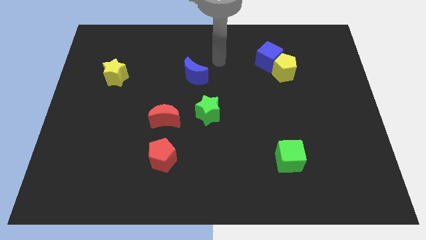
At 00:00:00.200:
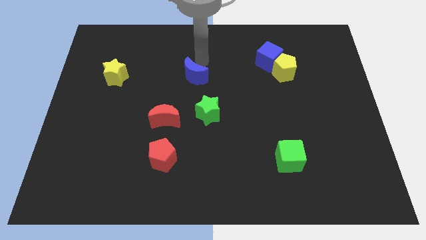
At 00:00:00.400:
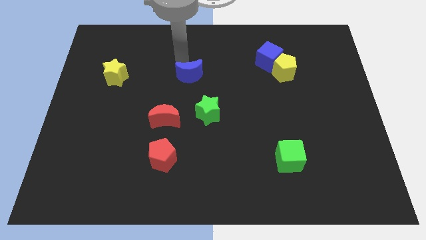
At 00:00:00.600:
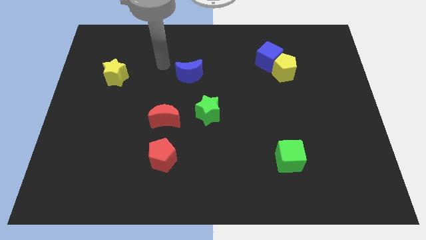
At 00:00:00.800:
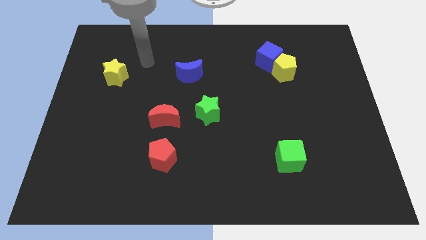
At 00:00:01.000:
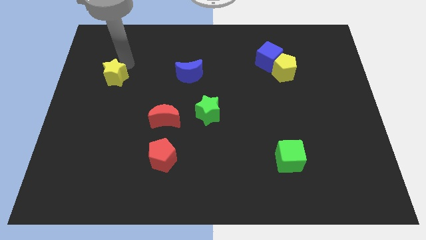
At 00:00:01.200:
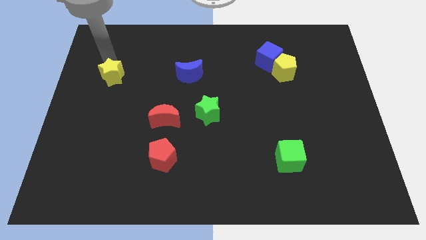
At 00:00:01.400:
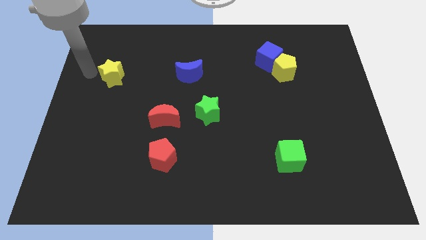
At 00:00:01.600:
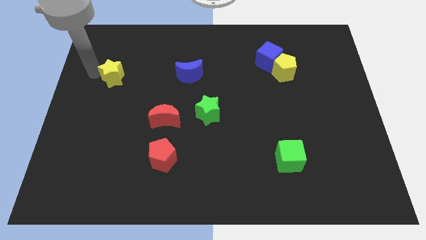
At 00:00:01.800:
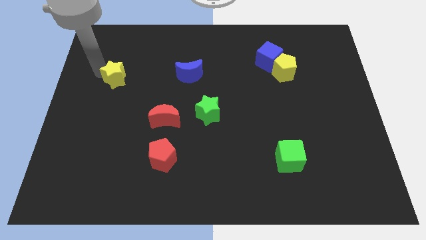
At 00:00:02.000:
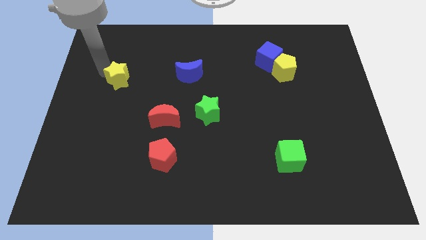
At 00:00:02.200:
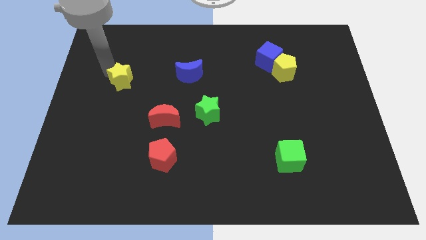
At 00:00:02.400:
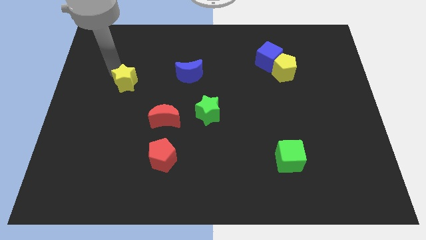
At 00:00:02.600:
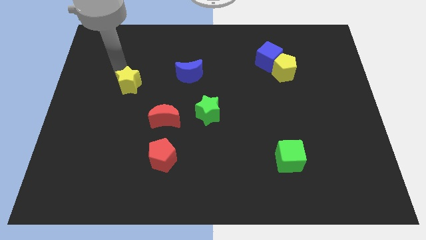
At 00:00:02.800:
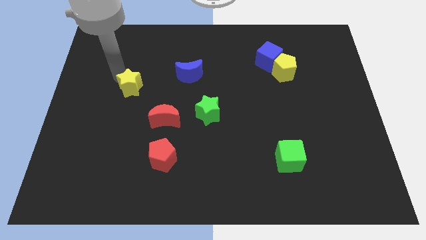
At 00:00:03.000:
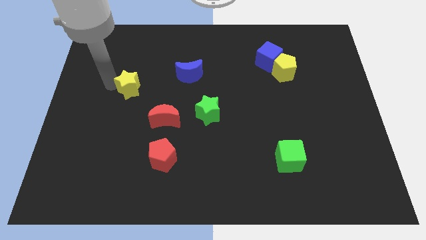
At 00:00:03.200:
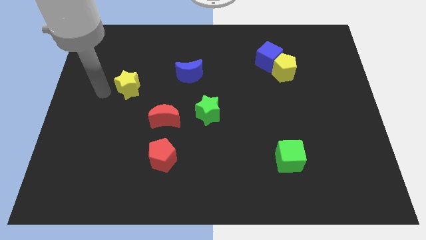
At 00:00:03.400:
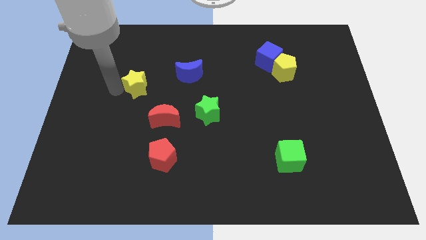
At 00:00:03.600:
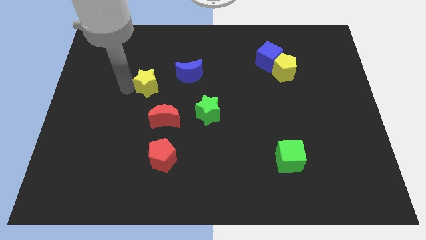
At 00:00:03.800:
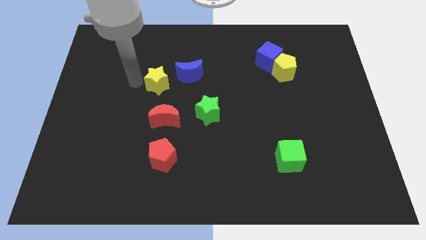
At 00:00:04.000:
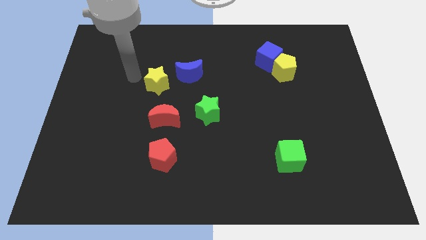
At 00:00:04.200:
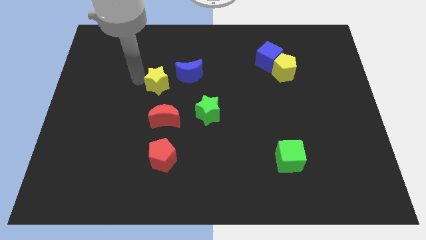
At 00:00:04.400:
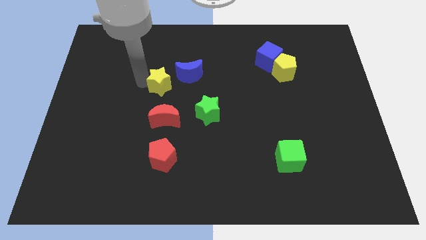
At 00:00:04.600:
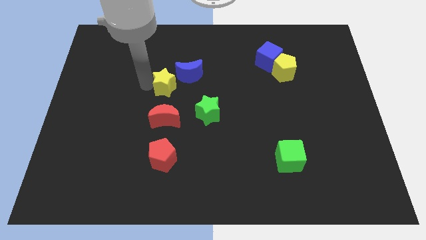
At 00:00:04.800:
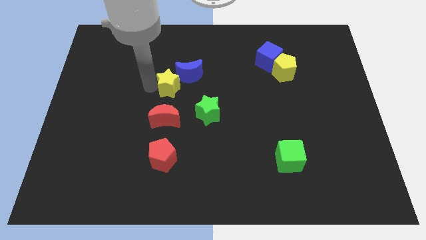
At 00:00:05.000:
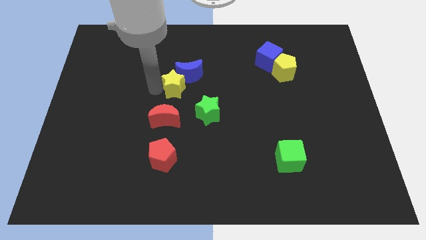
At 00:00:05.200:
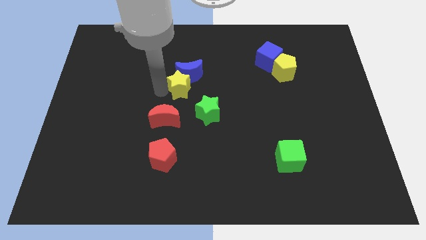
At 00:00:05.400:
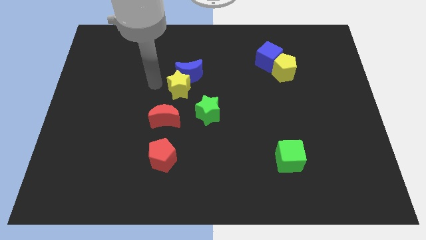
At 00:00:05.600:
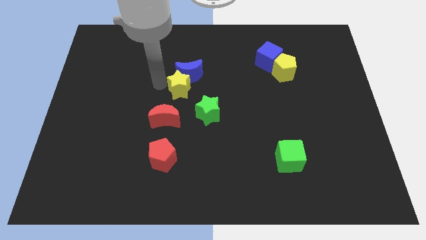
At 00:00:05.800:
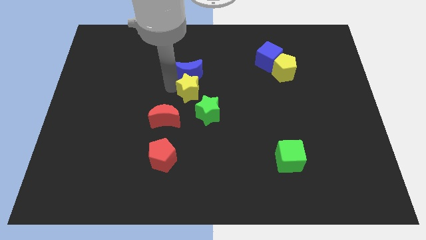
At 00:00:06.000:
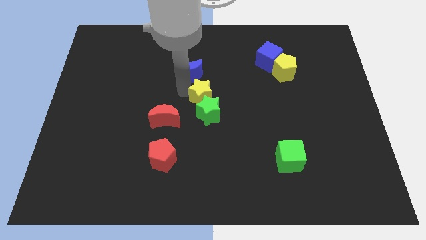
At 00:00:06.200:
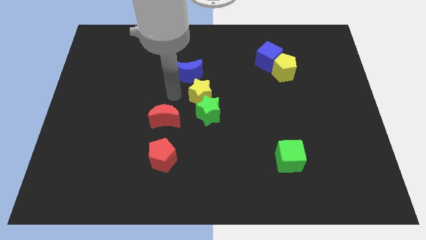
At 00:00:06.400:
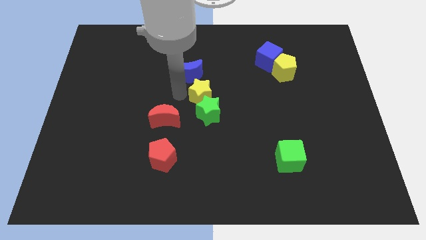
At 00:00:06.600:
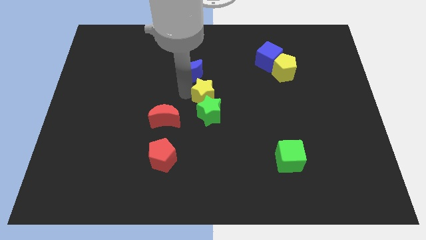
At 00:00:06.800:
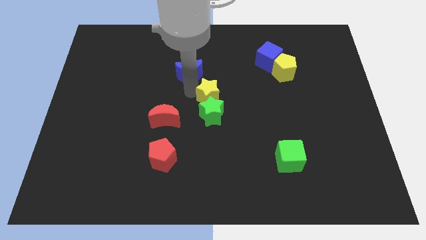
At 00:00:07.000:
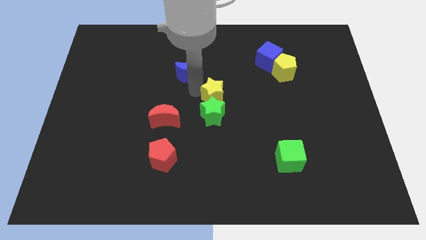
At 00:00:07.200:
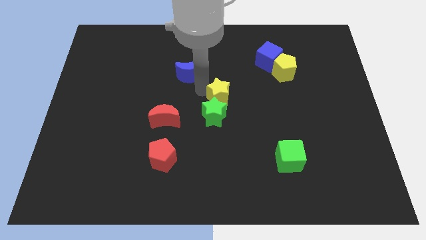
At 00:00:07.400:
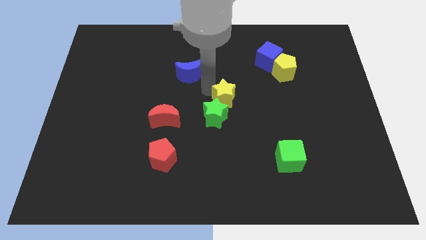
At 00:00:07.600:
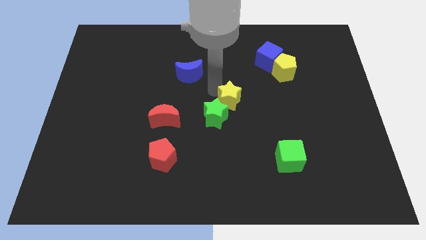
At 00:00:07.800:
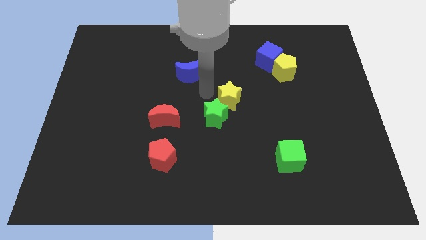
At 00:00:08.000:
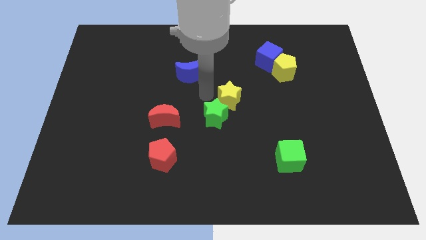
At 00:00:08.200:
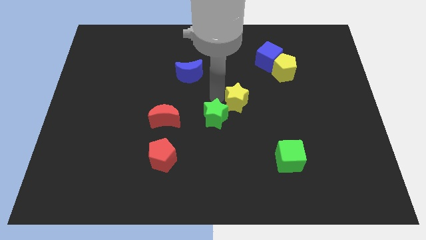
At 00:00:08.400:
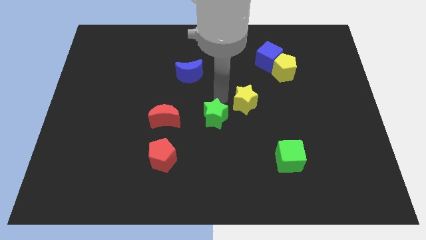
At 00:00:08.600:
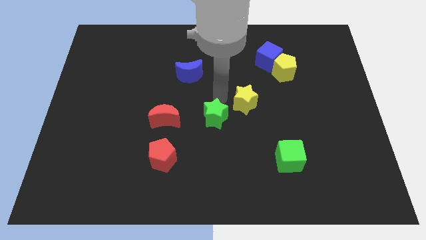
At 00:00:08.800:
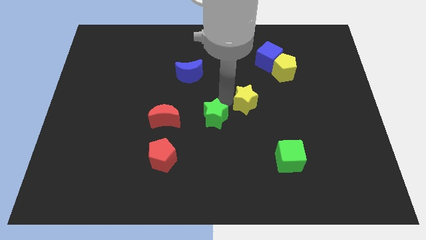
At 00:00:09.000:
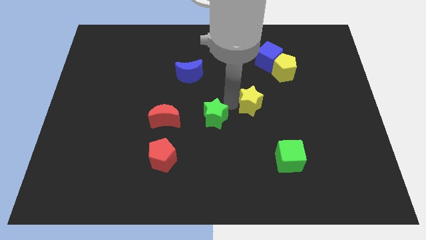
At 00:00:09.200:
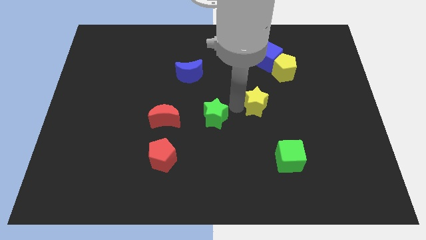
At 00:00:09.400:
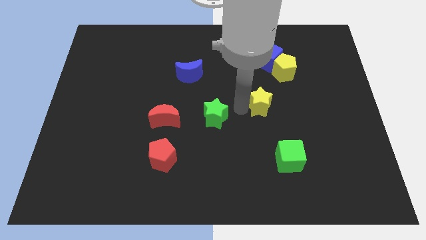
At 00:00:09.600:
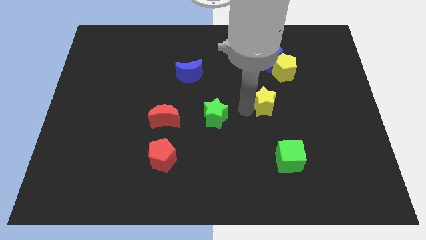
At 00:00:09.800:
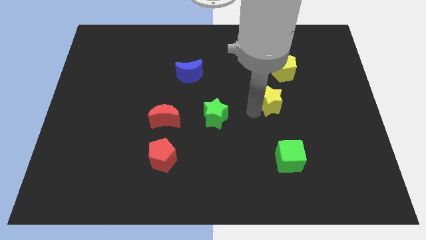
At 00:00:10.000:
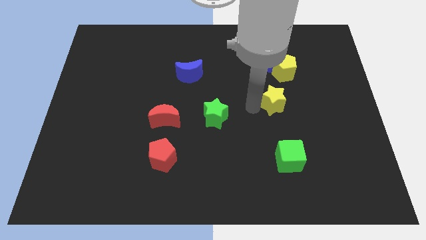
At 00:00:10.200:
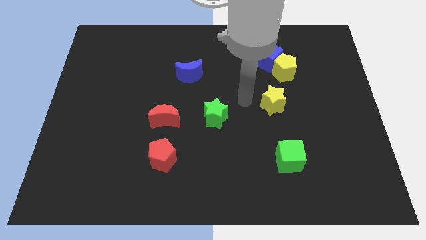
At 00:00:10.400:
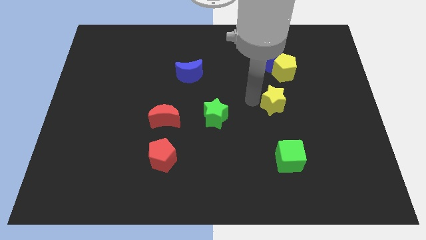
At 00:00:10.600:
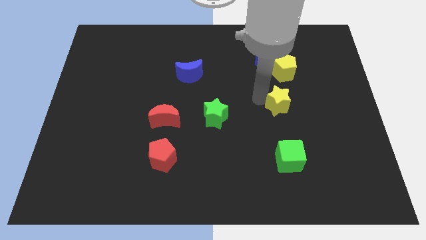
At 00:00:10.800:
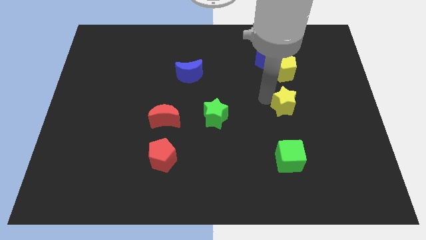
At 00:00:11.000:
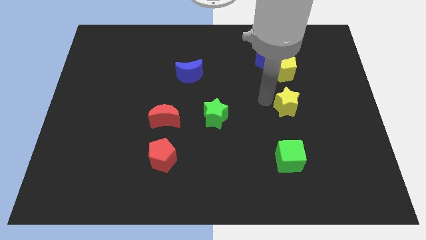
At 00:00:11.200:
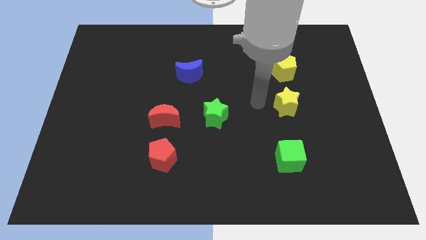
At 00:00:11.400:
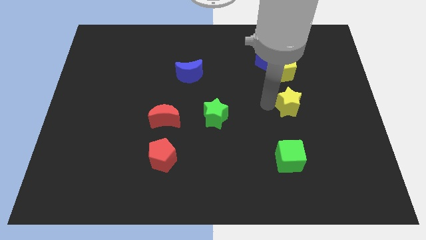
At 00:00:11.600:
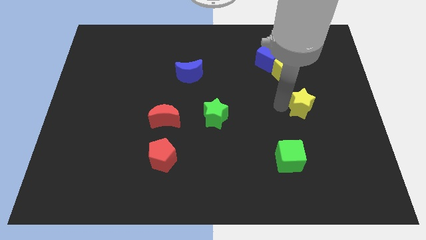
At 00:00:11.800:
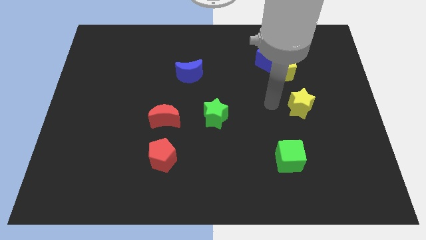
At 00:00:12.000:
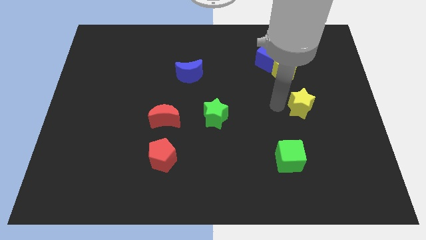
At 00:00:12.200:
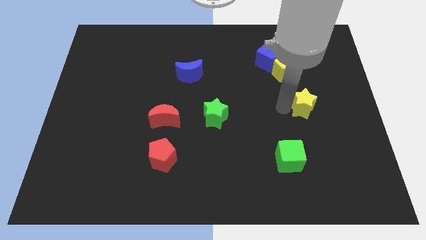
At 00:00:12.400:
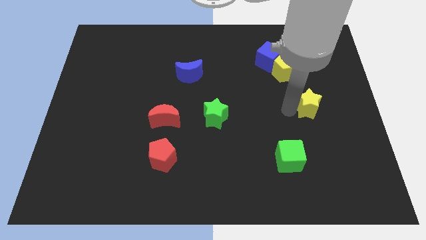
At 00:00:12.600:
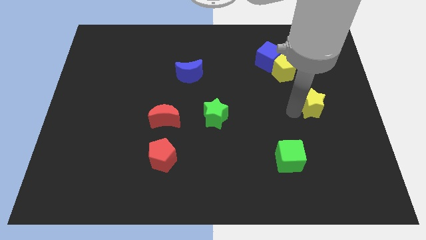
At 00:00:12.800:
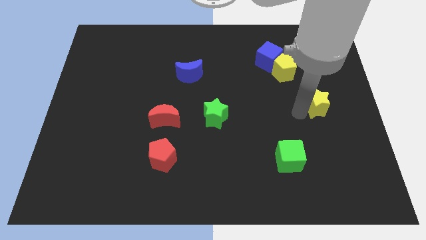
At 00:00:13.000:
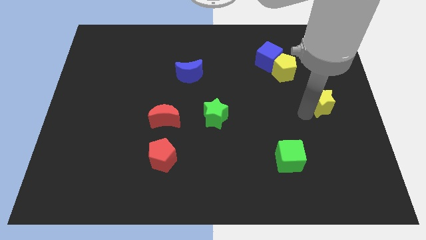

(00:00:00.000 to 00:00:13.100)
put the yellow star to the right side of the board
